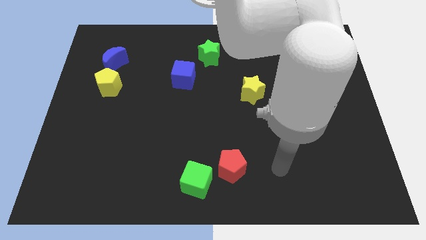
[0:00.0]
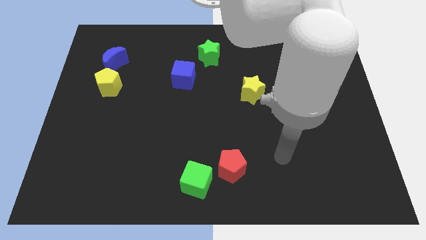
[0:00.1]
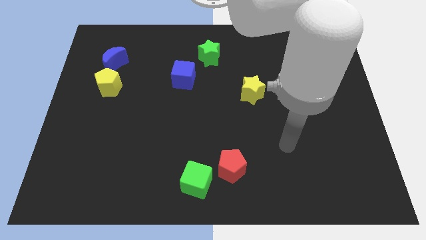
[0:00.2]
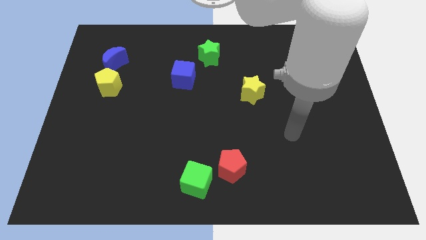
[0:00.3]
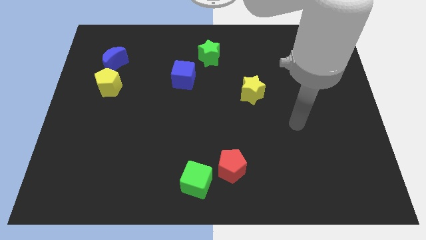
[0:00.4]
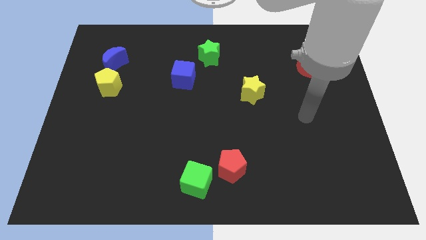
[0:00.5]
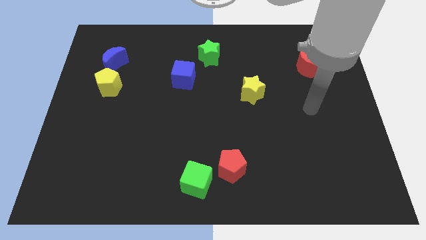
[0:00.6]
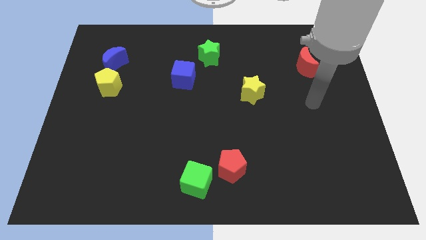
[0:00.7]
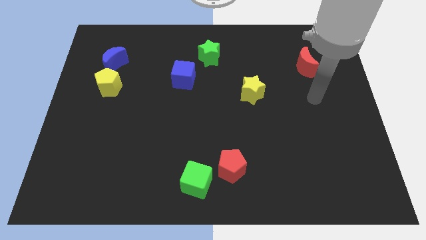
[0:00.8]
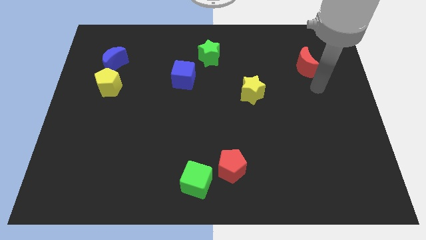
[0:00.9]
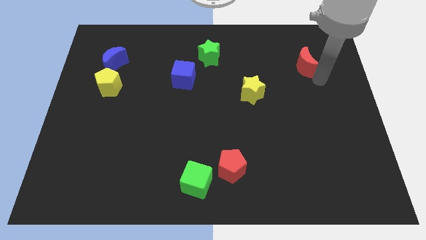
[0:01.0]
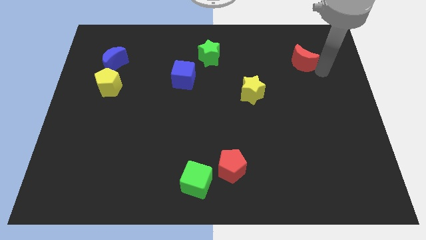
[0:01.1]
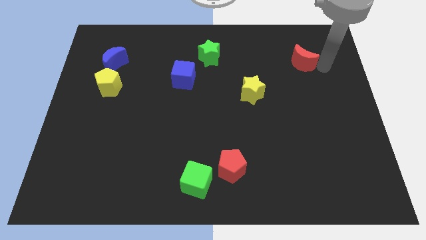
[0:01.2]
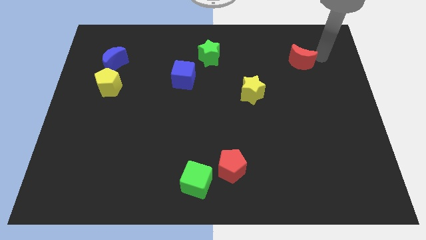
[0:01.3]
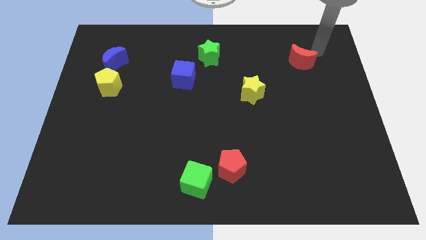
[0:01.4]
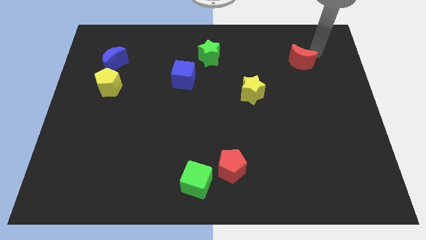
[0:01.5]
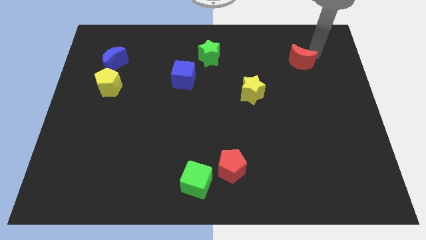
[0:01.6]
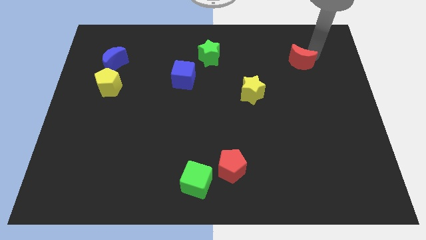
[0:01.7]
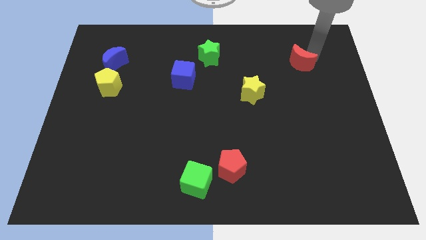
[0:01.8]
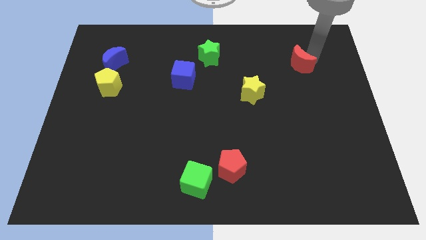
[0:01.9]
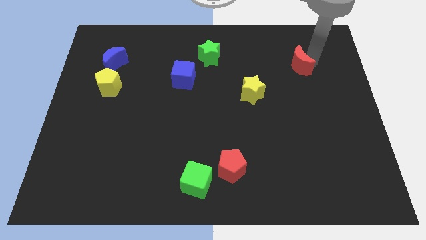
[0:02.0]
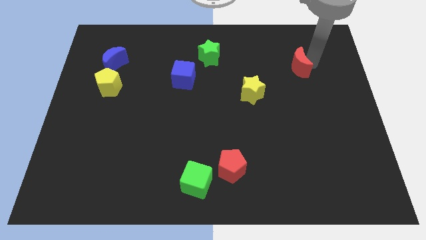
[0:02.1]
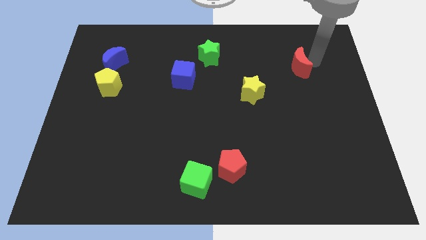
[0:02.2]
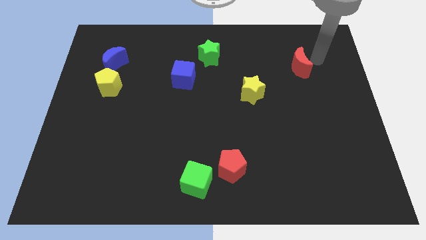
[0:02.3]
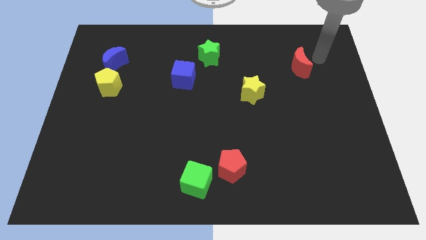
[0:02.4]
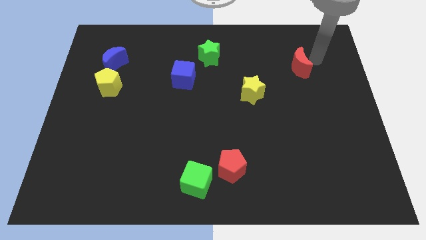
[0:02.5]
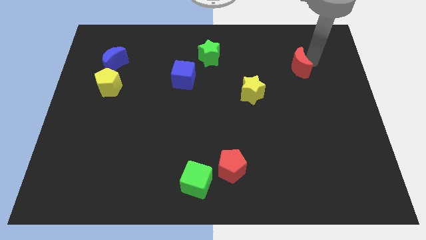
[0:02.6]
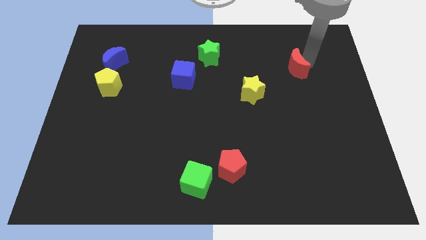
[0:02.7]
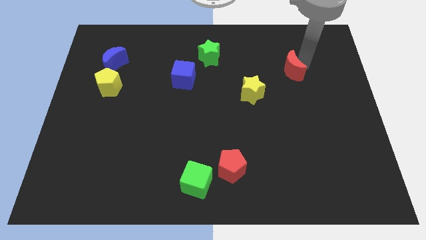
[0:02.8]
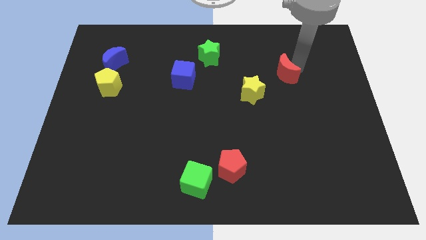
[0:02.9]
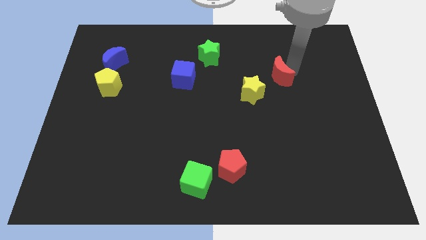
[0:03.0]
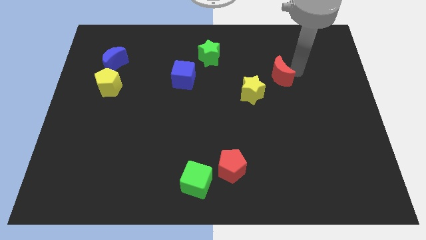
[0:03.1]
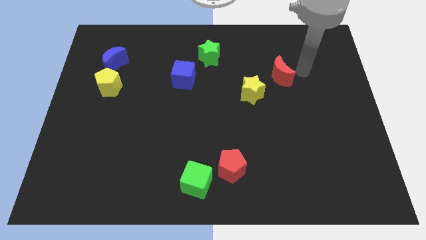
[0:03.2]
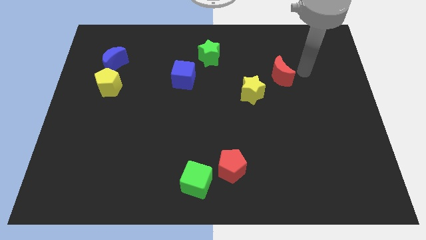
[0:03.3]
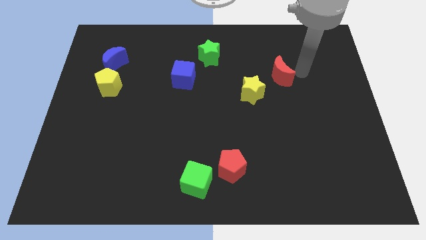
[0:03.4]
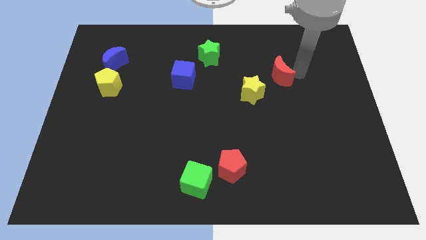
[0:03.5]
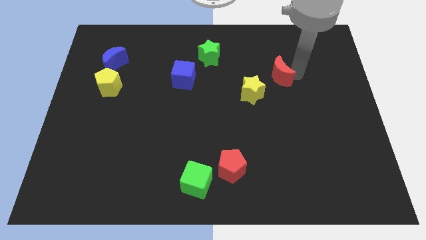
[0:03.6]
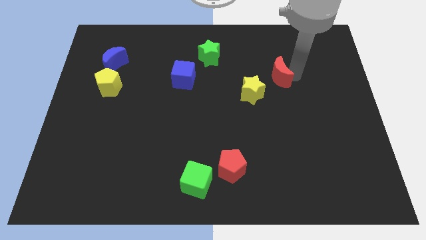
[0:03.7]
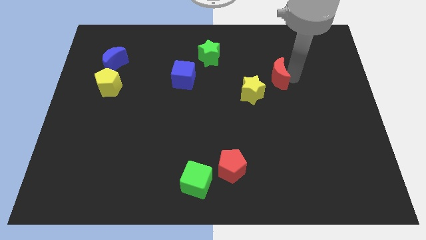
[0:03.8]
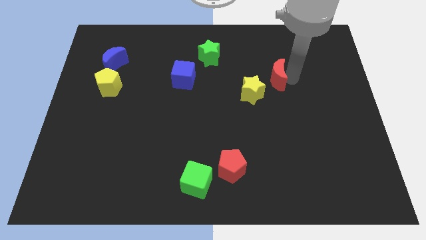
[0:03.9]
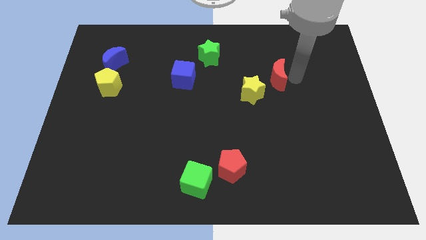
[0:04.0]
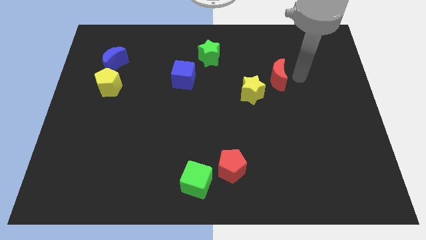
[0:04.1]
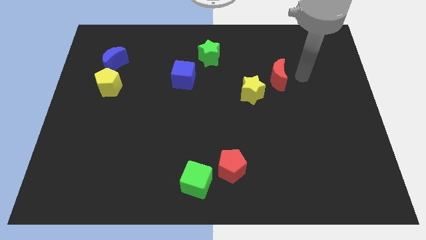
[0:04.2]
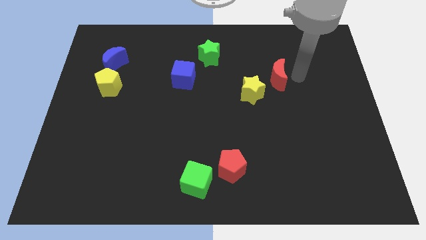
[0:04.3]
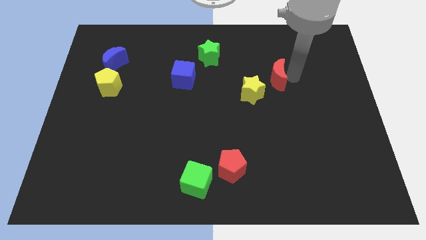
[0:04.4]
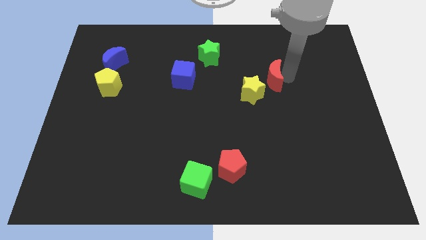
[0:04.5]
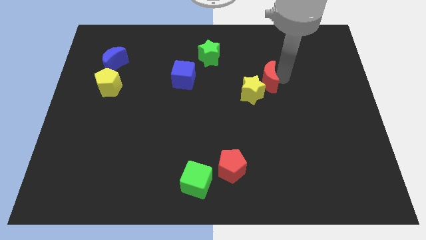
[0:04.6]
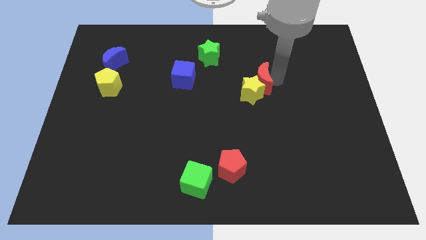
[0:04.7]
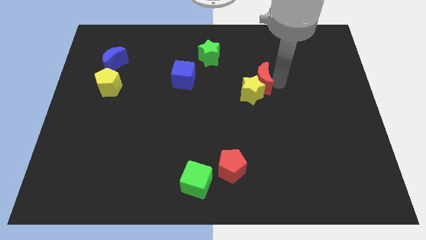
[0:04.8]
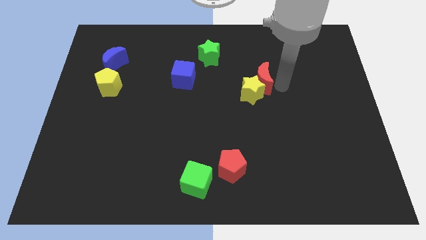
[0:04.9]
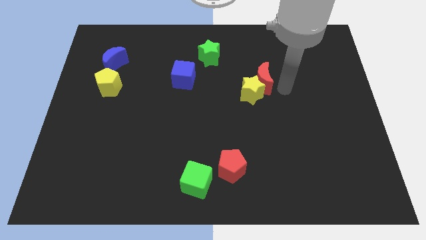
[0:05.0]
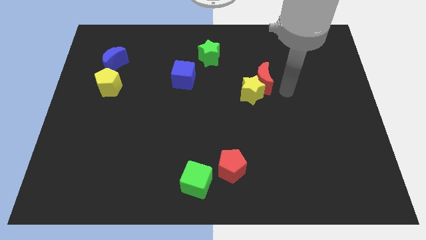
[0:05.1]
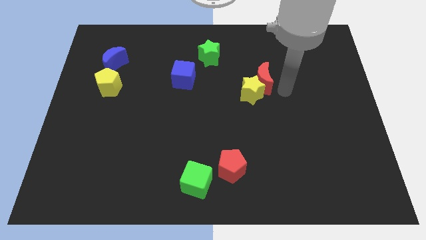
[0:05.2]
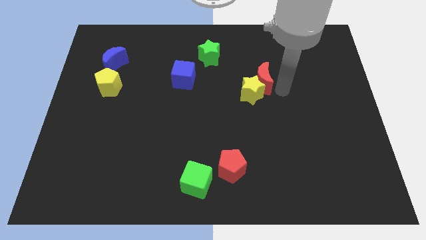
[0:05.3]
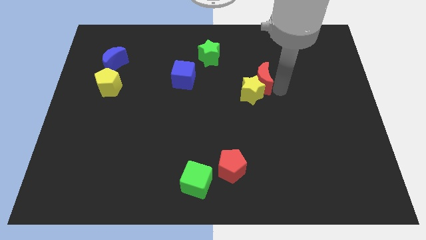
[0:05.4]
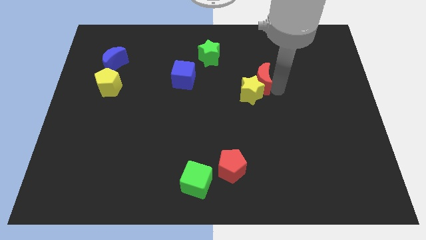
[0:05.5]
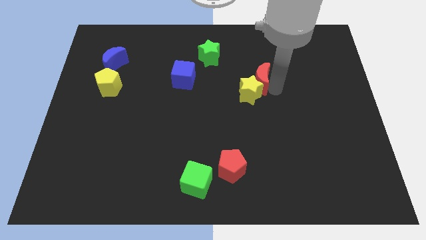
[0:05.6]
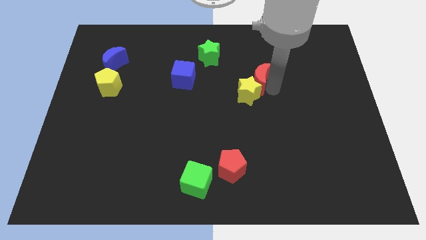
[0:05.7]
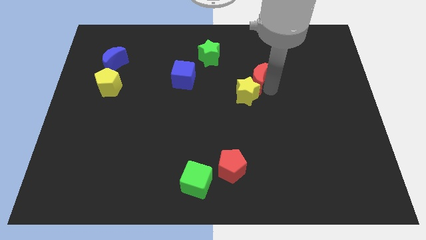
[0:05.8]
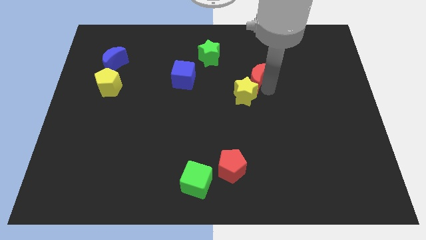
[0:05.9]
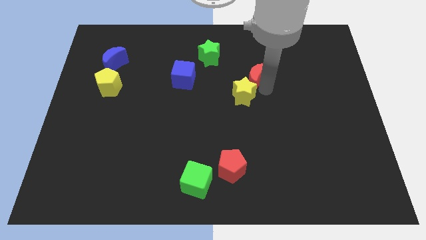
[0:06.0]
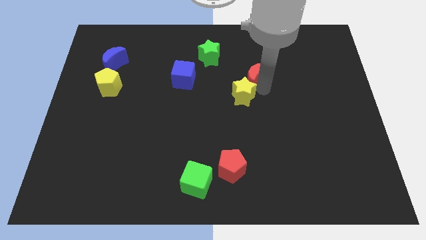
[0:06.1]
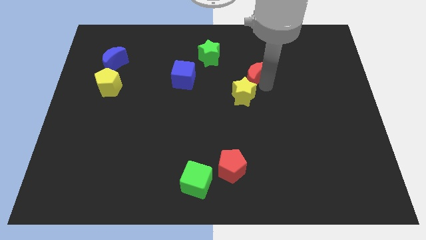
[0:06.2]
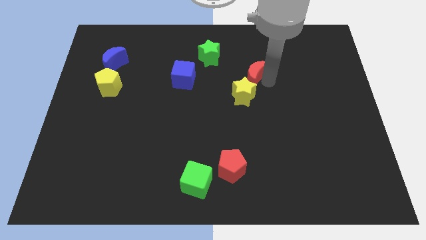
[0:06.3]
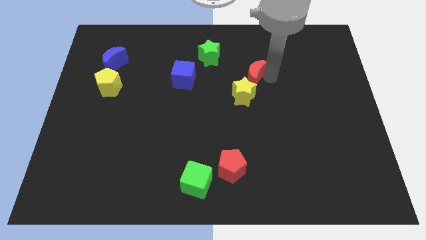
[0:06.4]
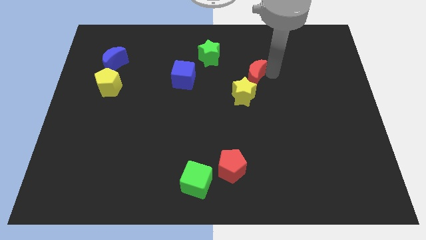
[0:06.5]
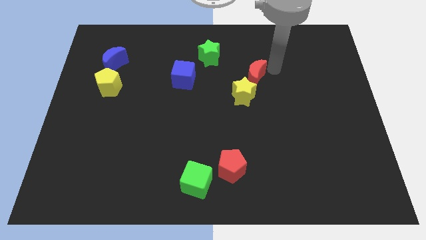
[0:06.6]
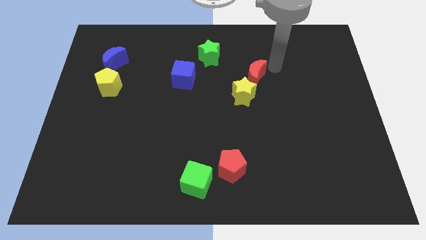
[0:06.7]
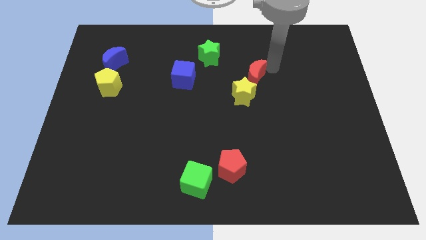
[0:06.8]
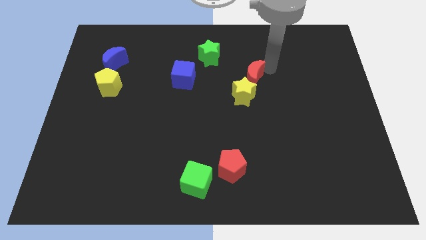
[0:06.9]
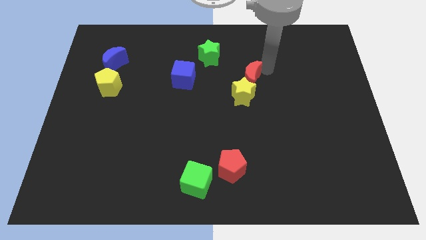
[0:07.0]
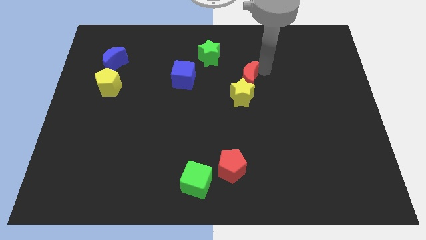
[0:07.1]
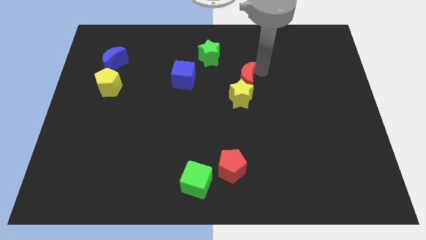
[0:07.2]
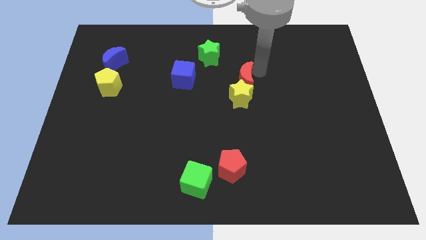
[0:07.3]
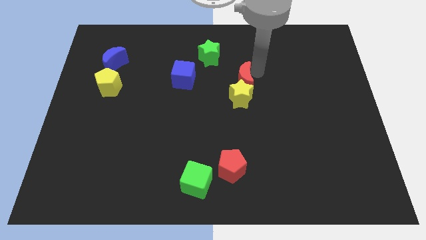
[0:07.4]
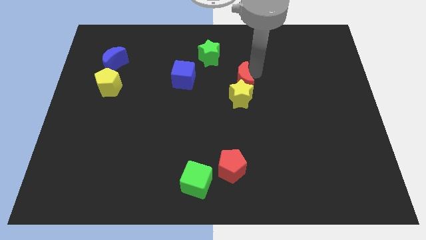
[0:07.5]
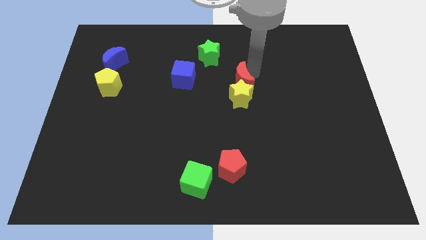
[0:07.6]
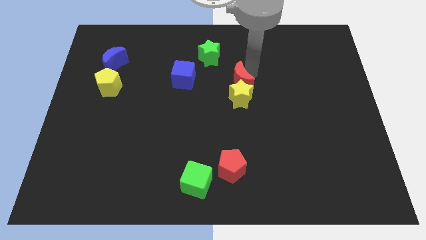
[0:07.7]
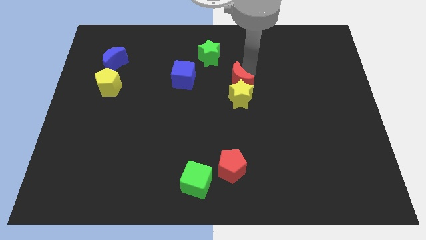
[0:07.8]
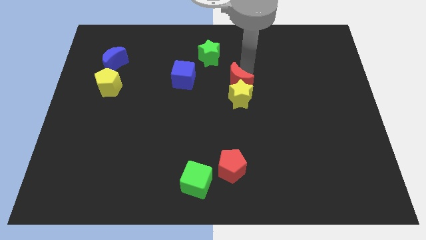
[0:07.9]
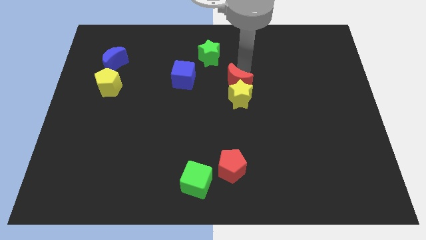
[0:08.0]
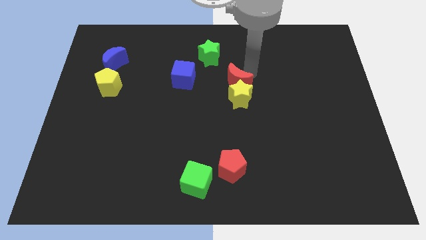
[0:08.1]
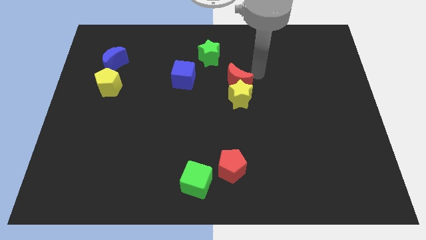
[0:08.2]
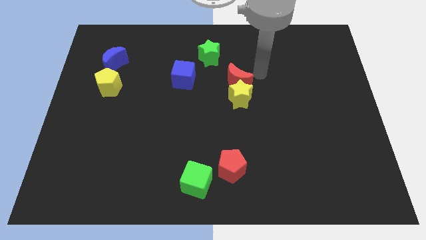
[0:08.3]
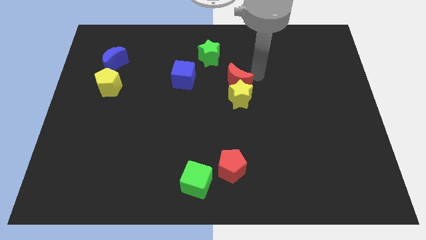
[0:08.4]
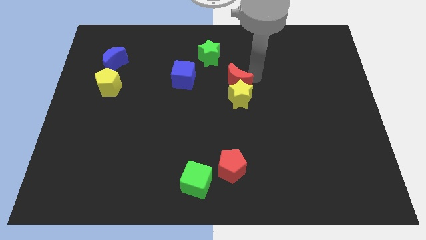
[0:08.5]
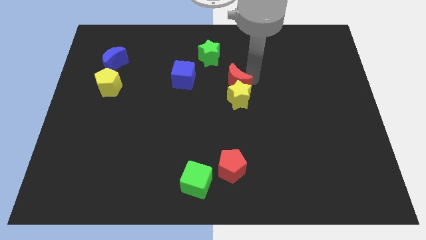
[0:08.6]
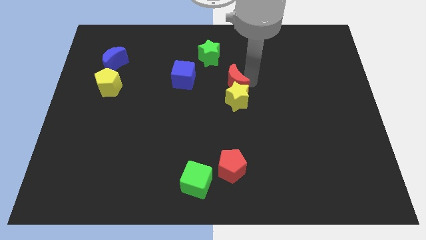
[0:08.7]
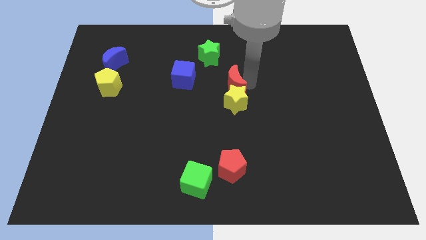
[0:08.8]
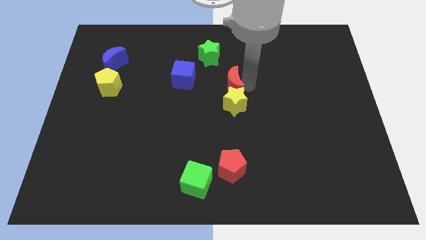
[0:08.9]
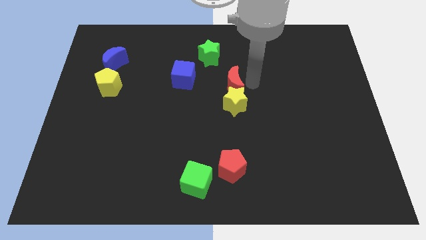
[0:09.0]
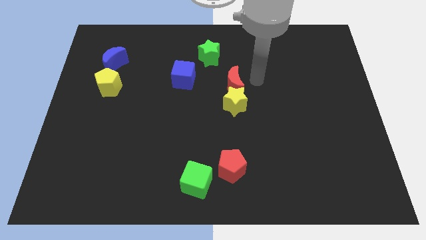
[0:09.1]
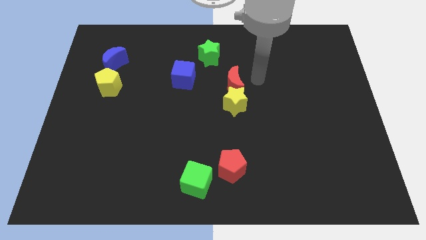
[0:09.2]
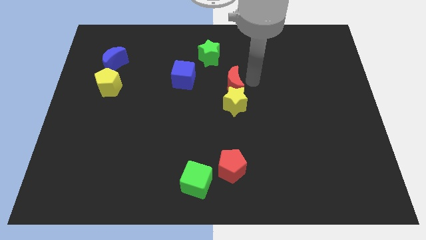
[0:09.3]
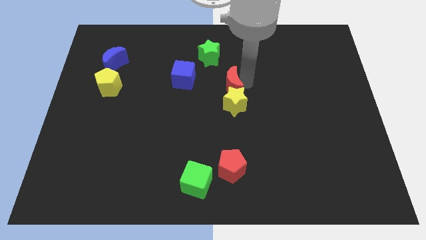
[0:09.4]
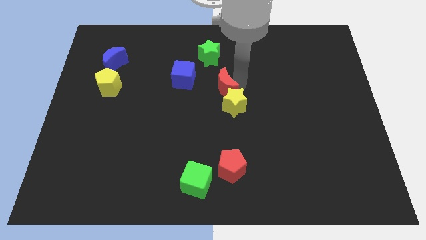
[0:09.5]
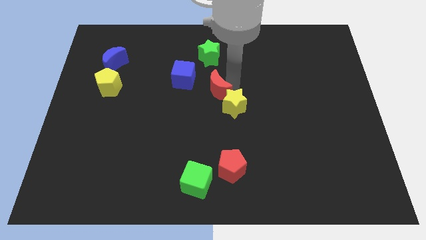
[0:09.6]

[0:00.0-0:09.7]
slide the red moon to the bottom right side of the blue cube
